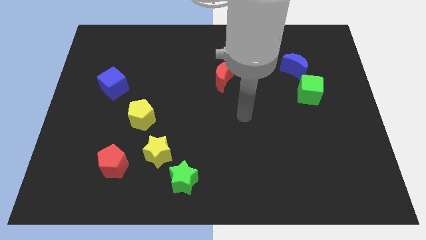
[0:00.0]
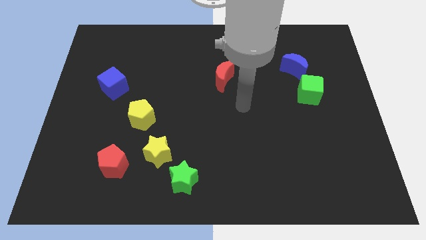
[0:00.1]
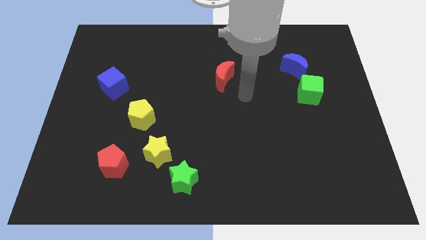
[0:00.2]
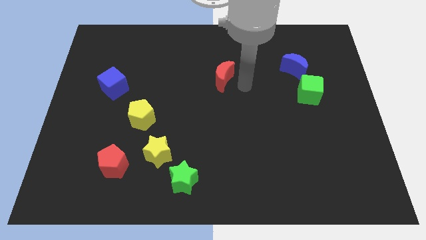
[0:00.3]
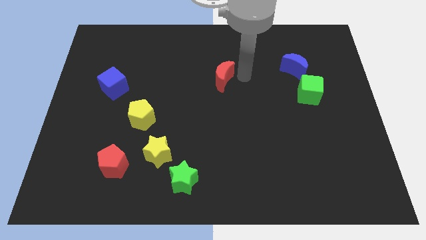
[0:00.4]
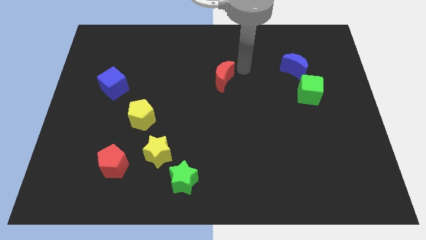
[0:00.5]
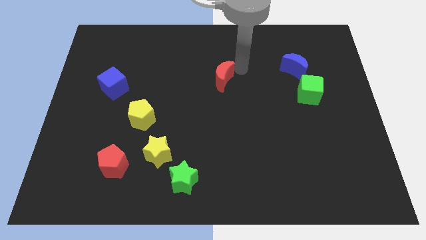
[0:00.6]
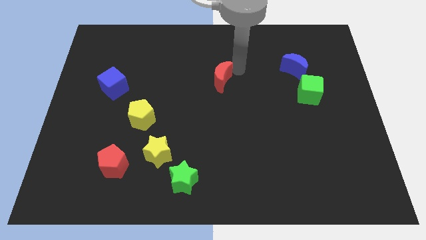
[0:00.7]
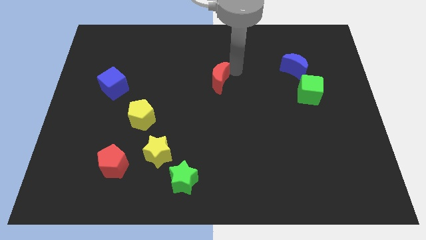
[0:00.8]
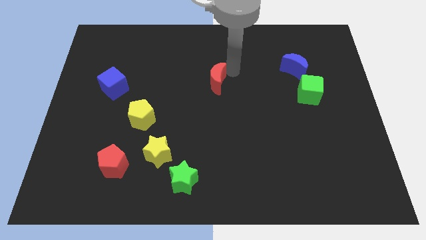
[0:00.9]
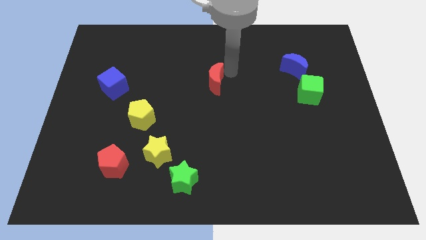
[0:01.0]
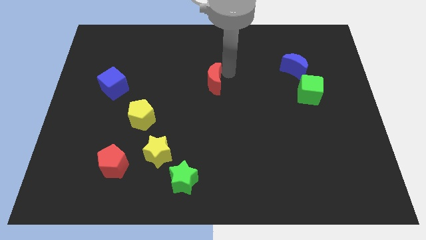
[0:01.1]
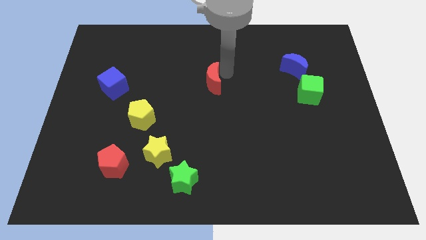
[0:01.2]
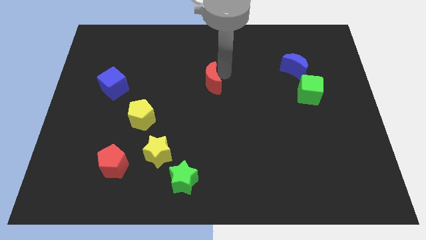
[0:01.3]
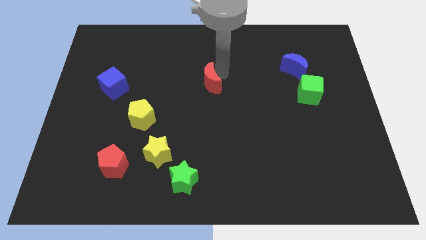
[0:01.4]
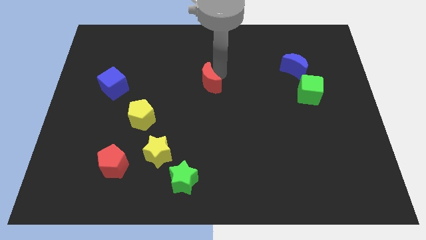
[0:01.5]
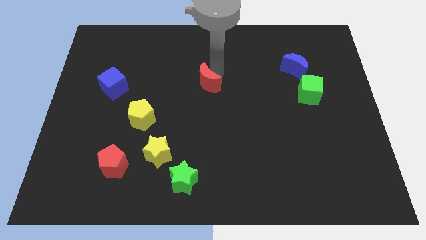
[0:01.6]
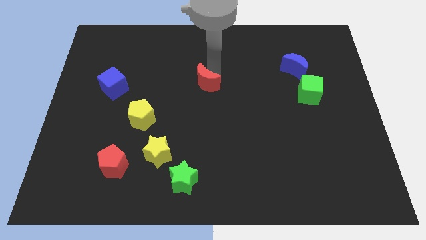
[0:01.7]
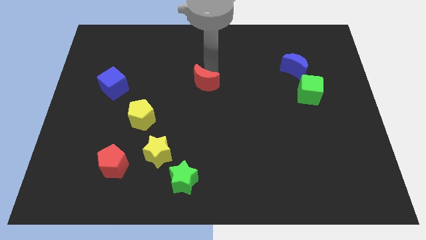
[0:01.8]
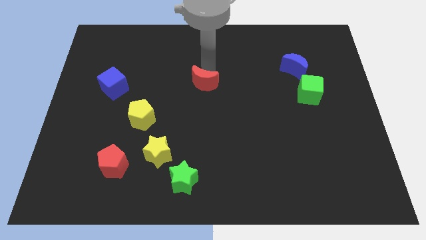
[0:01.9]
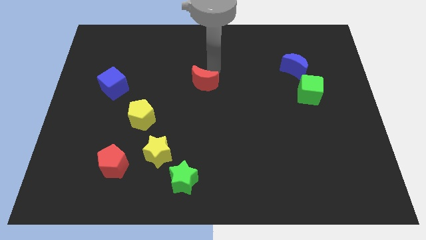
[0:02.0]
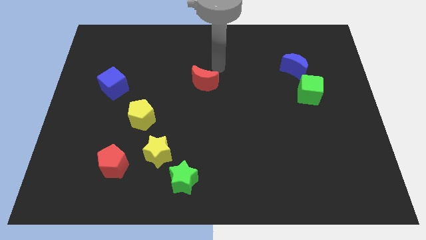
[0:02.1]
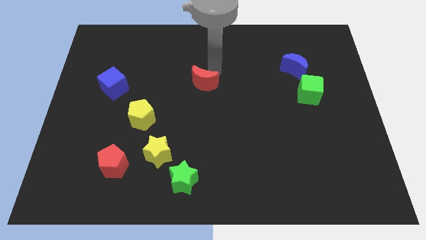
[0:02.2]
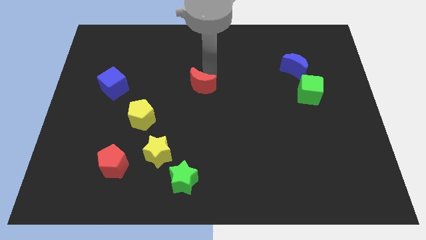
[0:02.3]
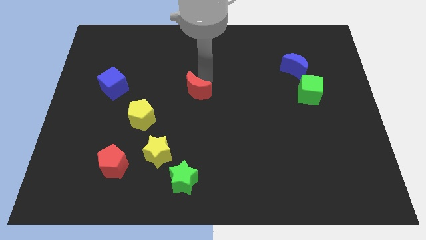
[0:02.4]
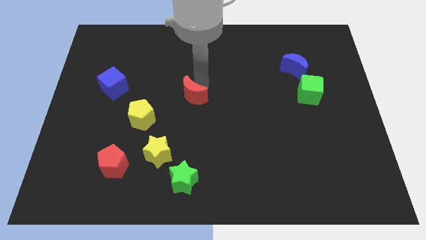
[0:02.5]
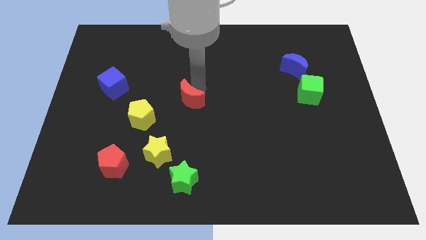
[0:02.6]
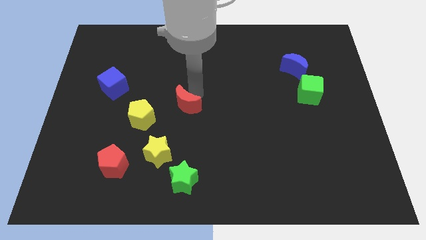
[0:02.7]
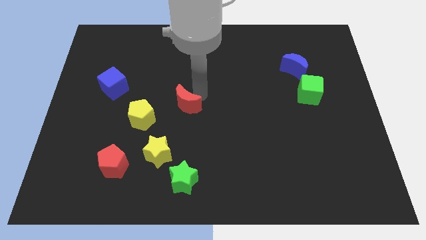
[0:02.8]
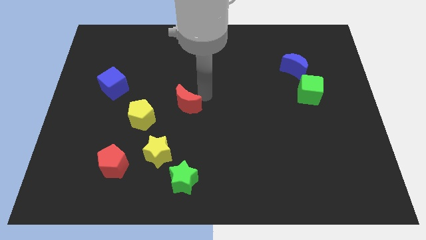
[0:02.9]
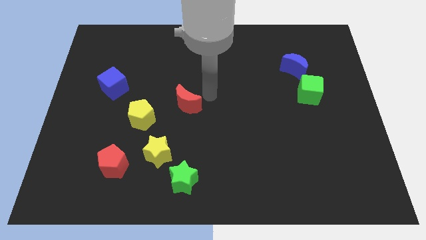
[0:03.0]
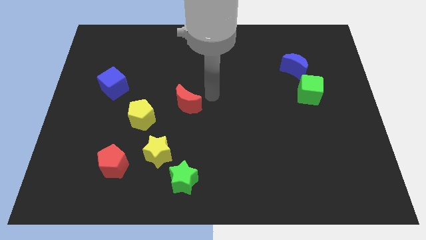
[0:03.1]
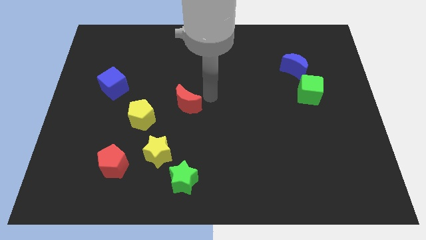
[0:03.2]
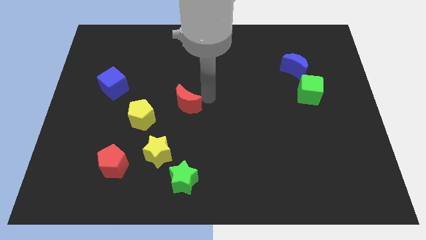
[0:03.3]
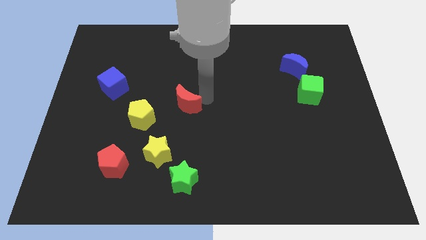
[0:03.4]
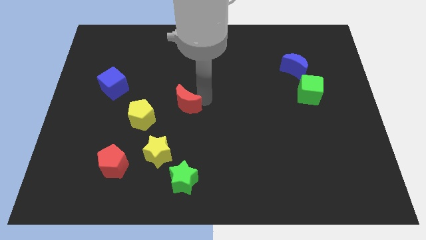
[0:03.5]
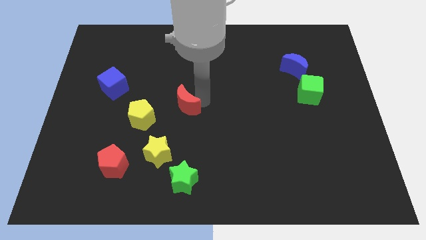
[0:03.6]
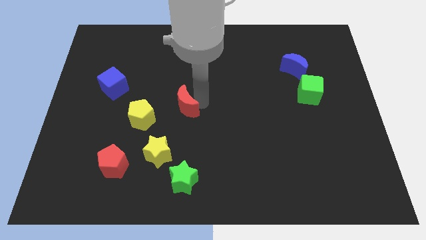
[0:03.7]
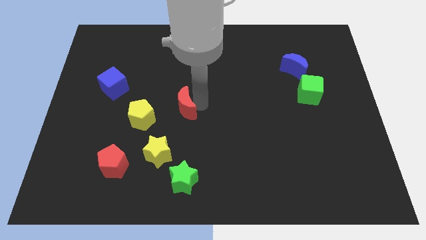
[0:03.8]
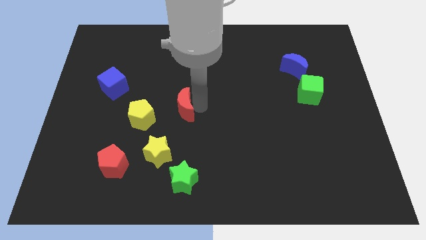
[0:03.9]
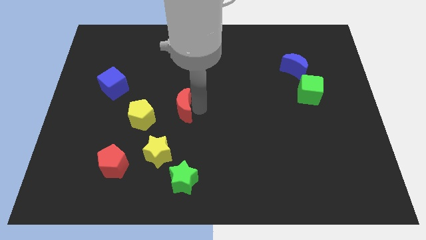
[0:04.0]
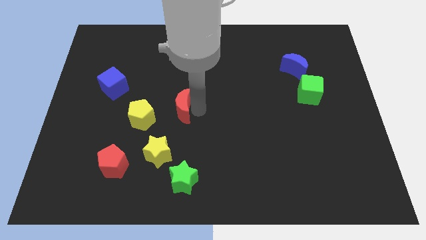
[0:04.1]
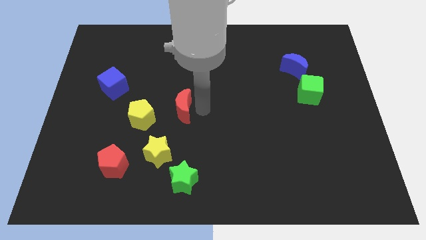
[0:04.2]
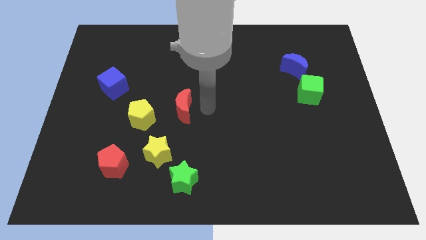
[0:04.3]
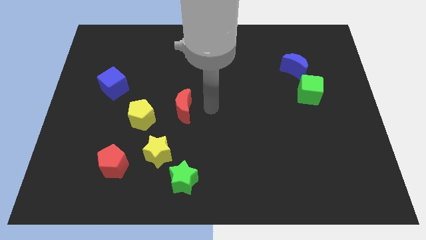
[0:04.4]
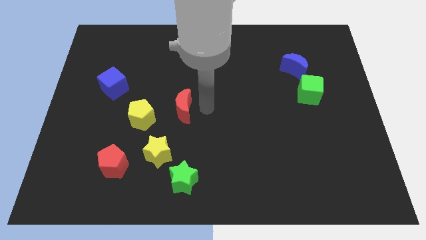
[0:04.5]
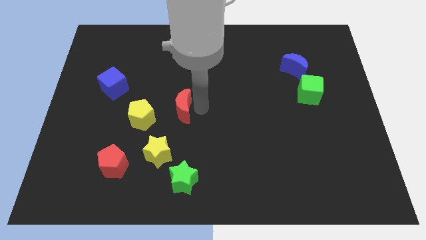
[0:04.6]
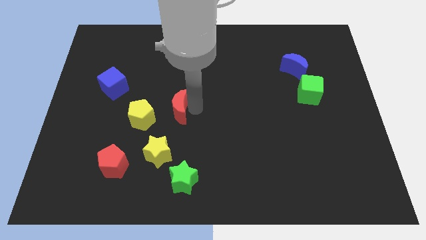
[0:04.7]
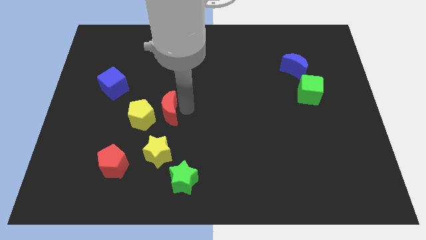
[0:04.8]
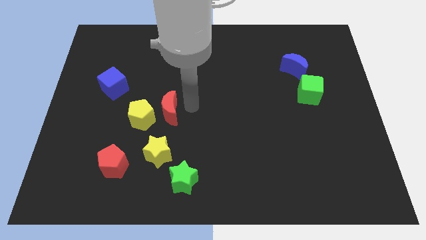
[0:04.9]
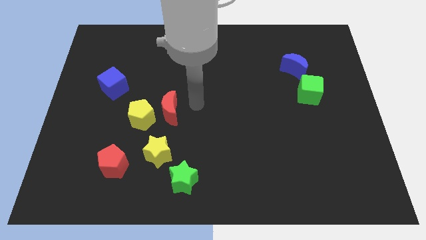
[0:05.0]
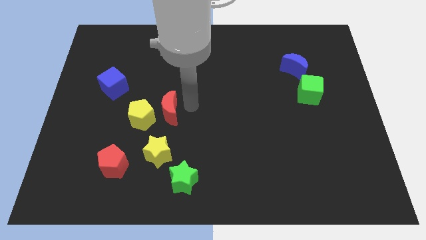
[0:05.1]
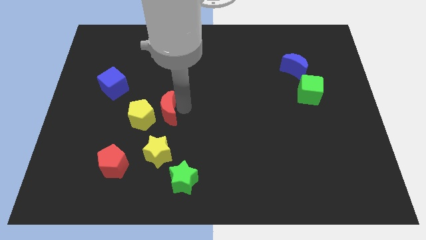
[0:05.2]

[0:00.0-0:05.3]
push the red moon to the yellow pentagon

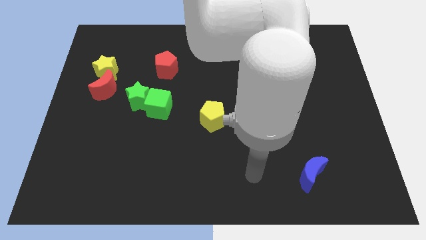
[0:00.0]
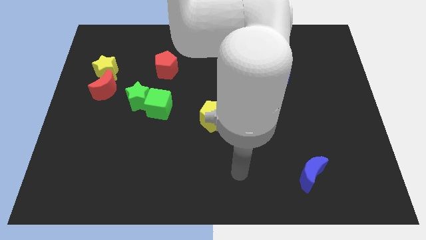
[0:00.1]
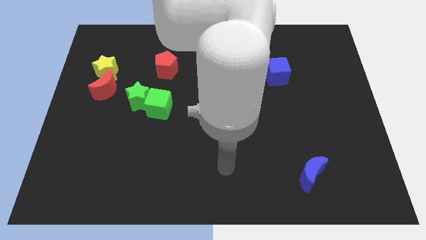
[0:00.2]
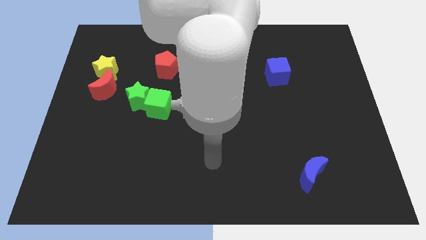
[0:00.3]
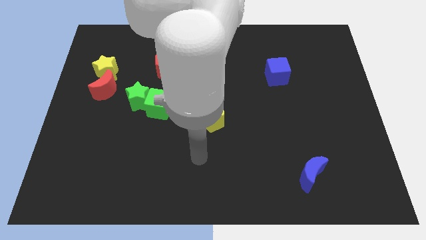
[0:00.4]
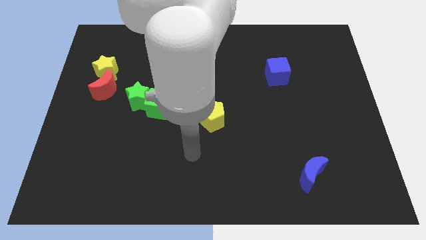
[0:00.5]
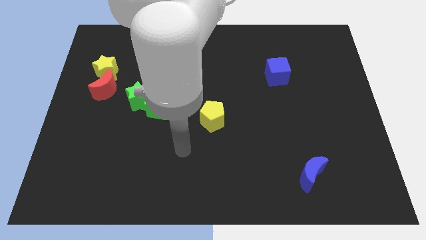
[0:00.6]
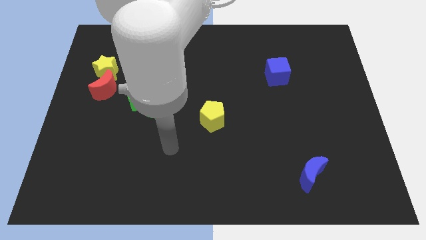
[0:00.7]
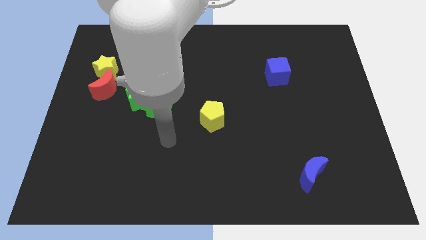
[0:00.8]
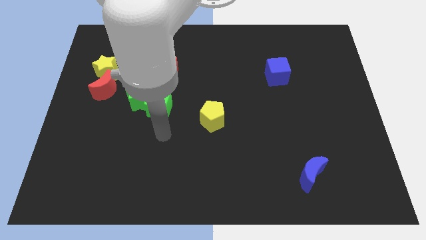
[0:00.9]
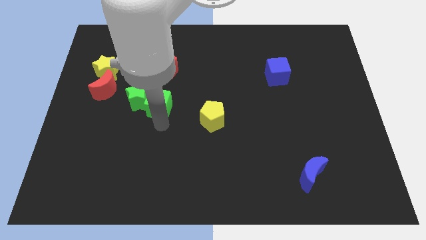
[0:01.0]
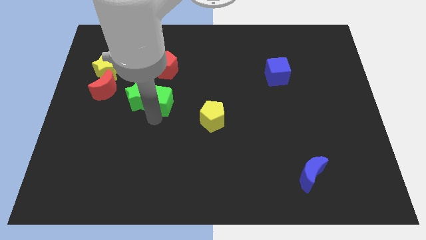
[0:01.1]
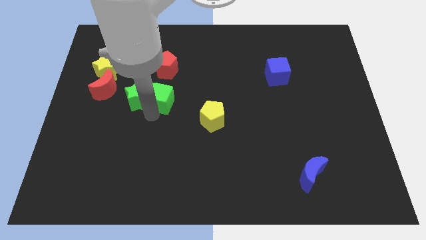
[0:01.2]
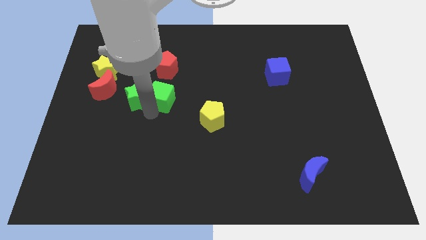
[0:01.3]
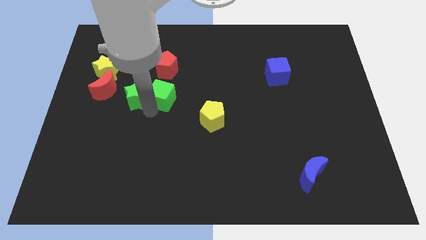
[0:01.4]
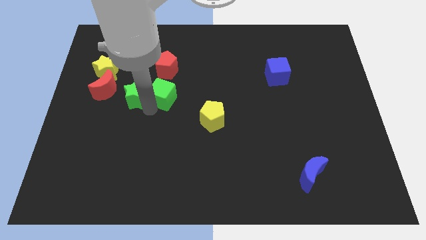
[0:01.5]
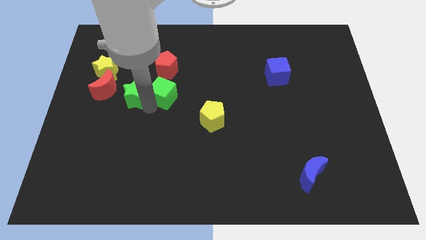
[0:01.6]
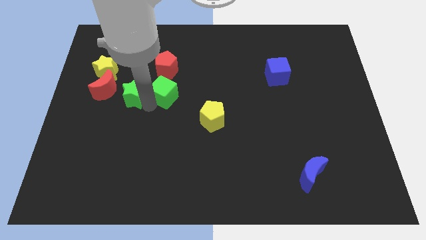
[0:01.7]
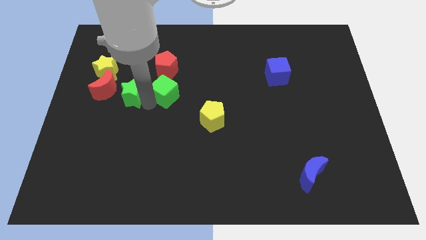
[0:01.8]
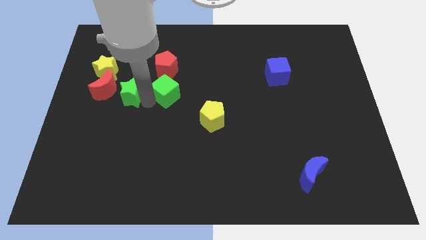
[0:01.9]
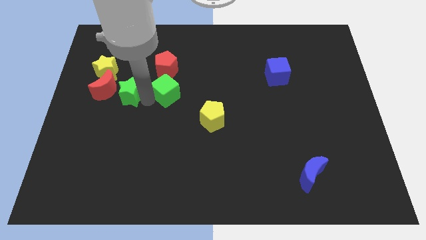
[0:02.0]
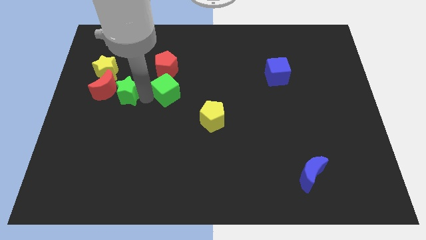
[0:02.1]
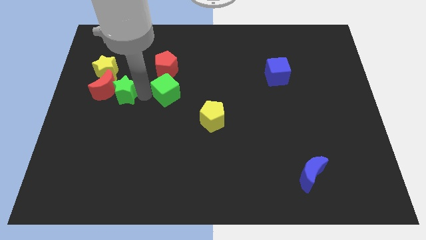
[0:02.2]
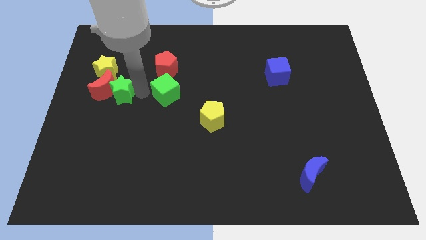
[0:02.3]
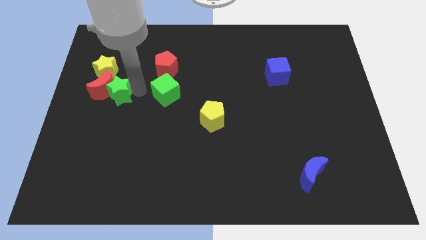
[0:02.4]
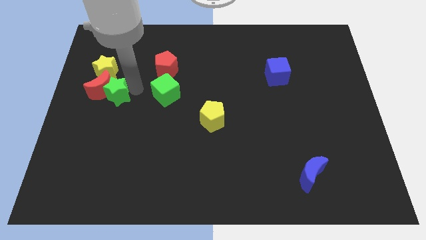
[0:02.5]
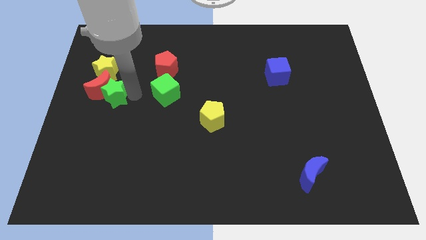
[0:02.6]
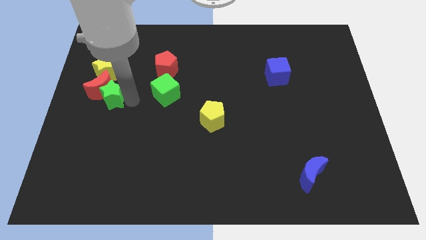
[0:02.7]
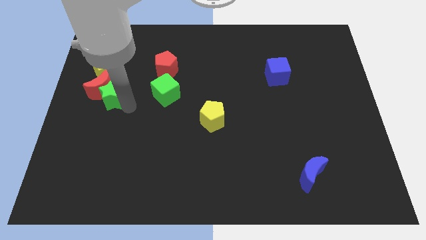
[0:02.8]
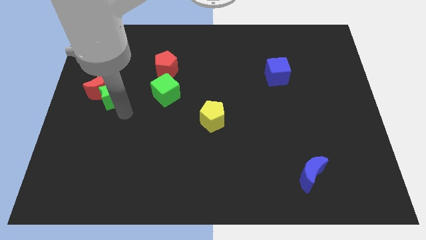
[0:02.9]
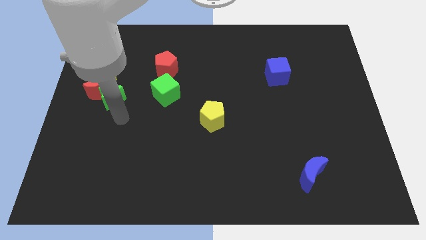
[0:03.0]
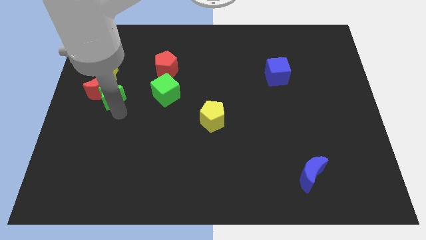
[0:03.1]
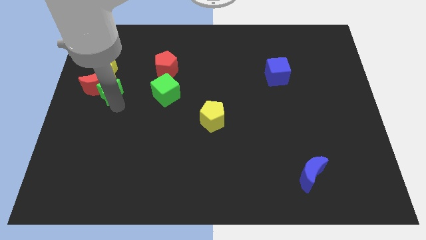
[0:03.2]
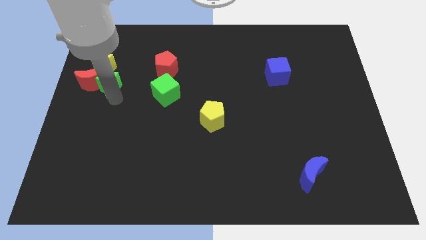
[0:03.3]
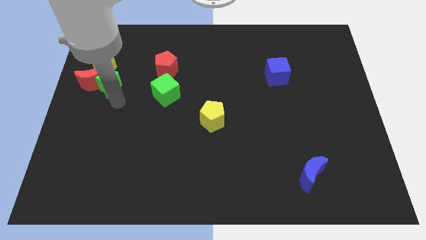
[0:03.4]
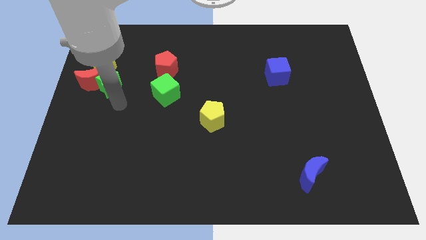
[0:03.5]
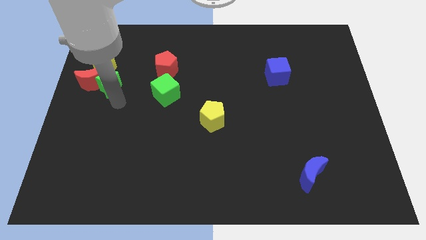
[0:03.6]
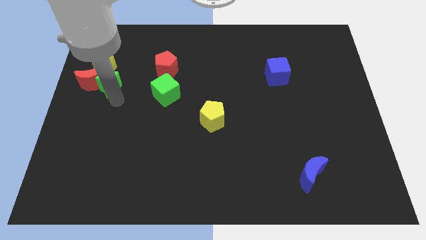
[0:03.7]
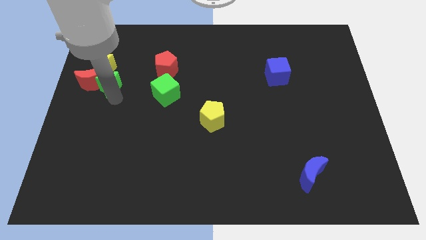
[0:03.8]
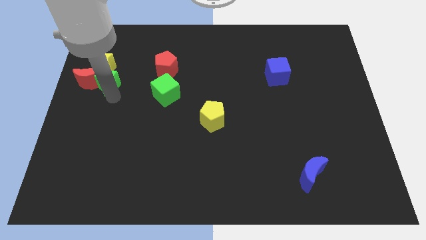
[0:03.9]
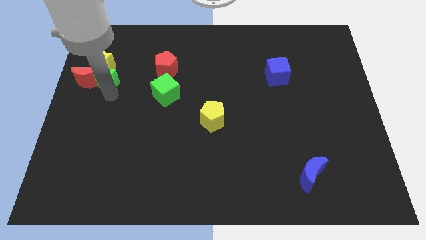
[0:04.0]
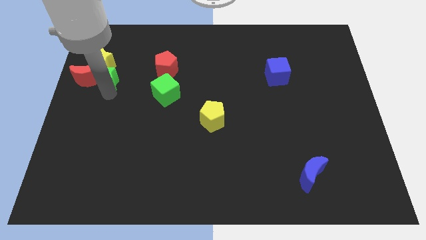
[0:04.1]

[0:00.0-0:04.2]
slide the green star towards the yellow star
